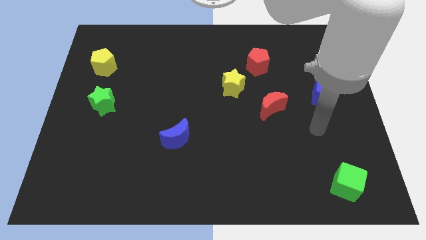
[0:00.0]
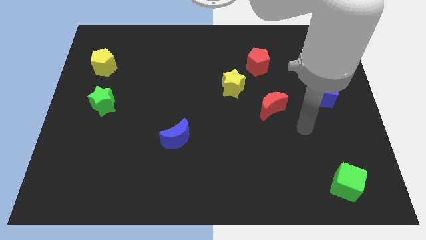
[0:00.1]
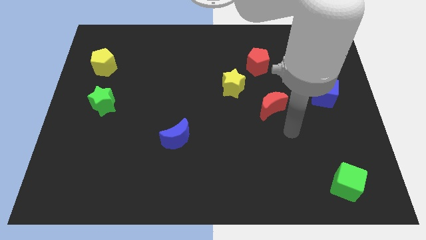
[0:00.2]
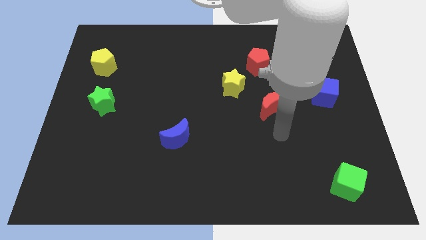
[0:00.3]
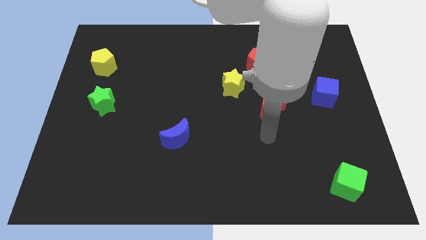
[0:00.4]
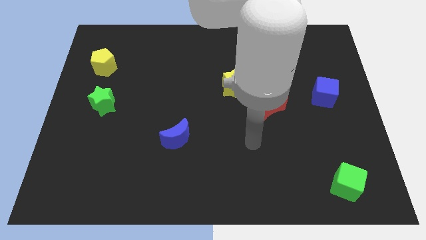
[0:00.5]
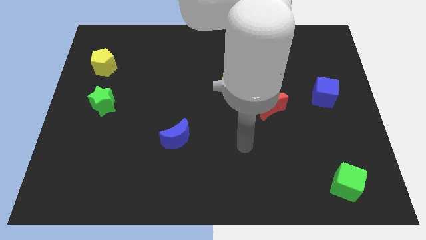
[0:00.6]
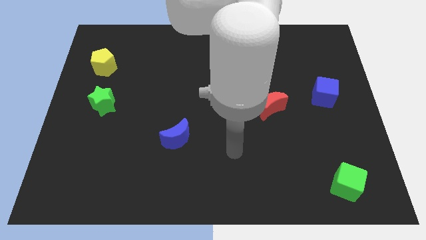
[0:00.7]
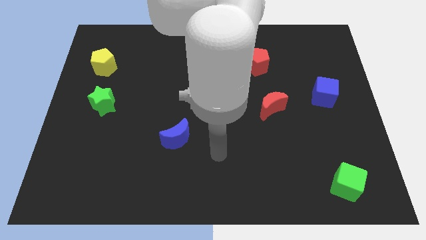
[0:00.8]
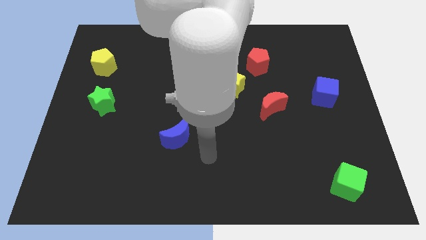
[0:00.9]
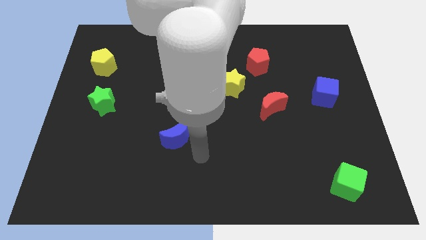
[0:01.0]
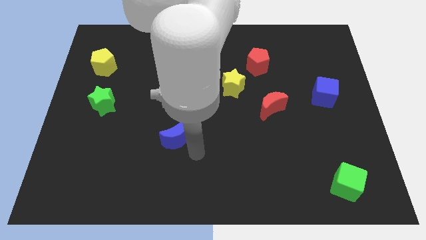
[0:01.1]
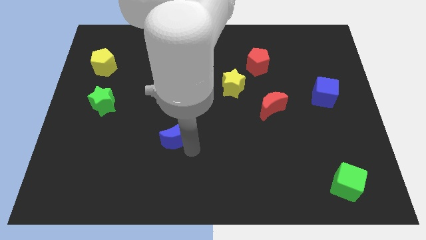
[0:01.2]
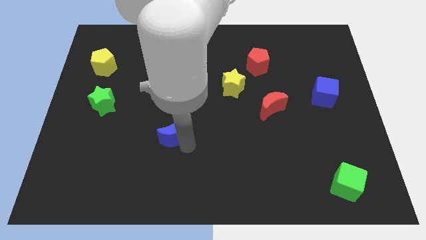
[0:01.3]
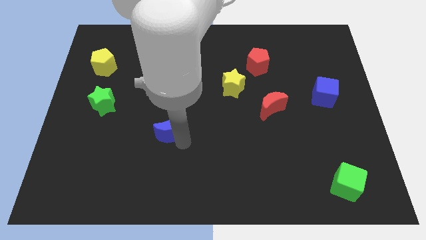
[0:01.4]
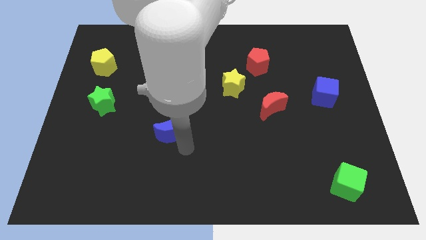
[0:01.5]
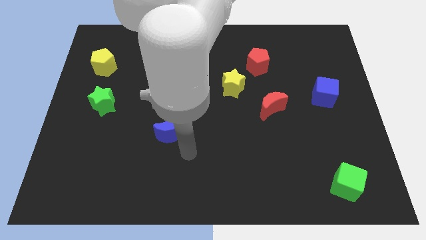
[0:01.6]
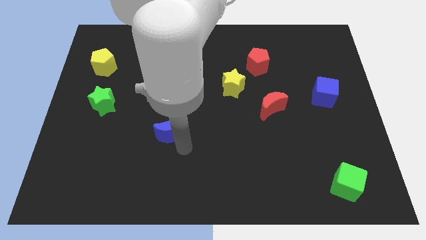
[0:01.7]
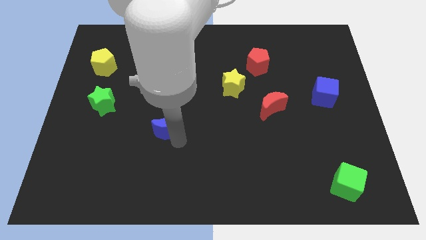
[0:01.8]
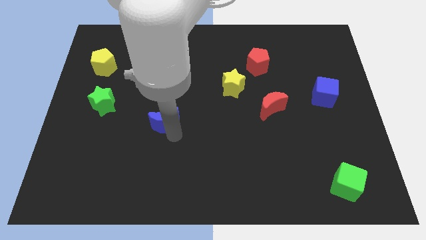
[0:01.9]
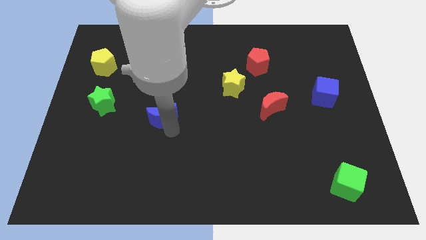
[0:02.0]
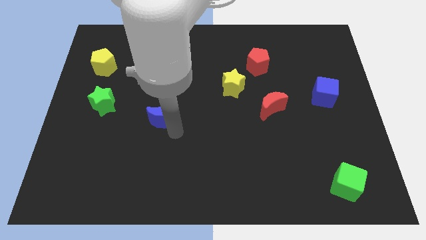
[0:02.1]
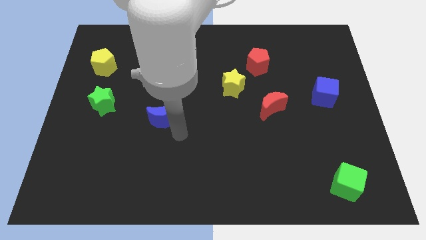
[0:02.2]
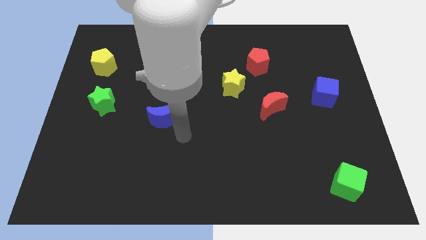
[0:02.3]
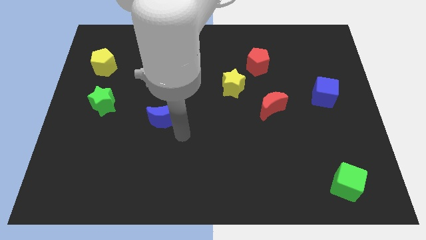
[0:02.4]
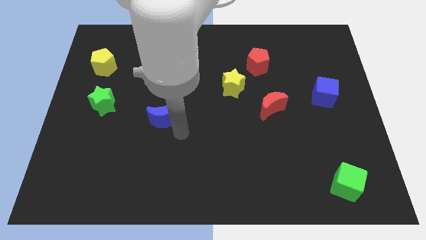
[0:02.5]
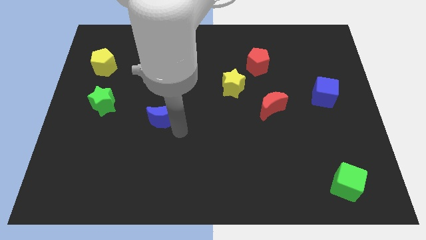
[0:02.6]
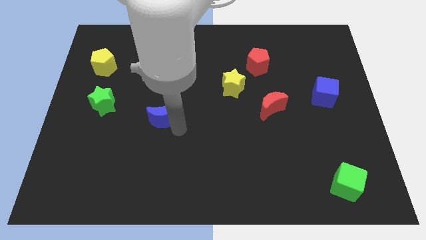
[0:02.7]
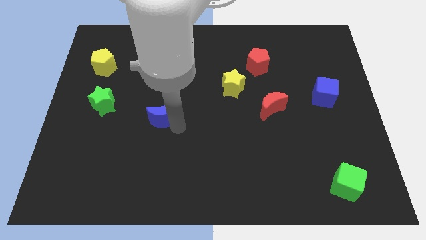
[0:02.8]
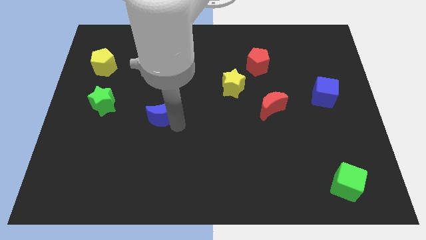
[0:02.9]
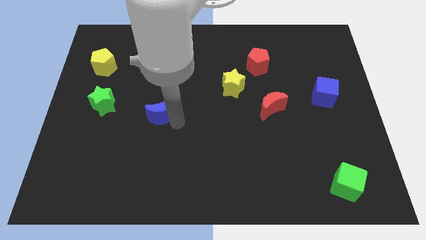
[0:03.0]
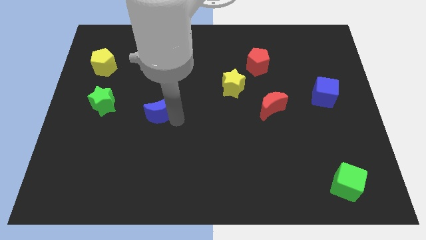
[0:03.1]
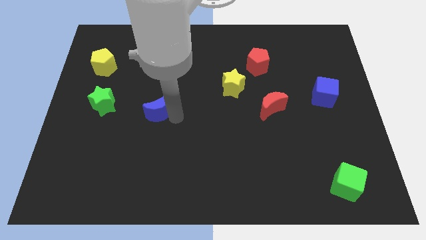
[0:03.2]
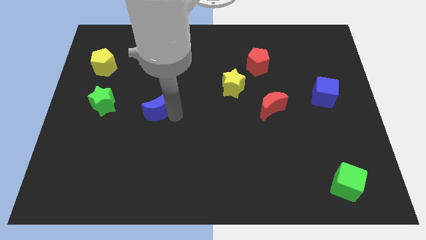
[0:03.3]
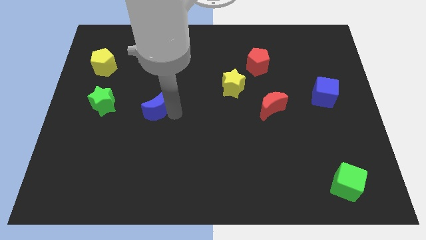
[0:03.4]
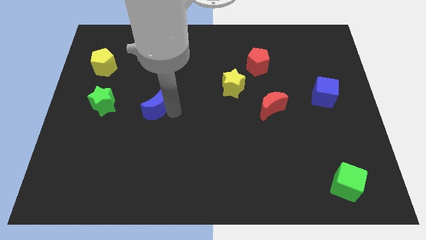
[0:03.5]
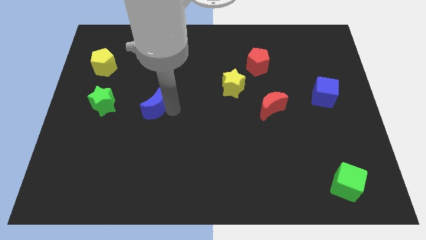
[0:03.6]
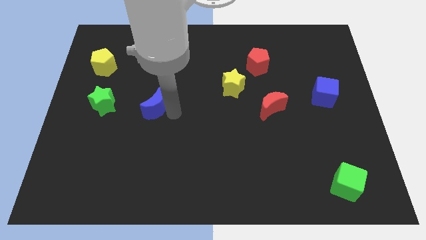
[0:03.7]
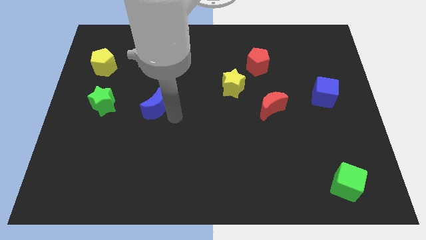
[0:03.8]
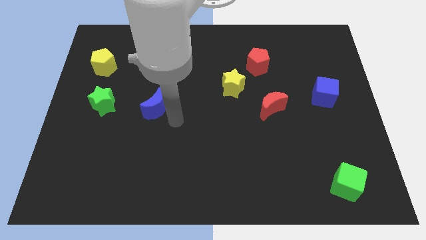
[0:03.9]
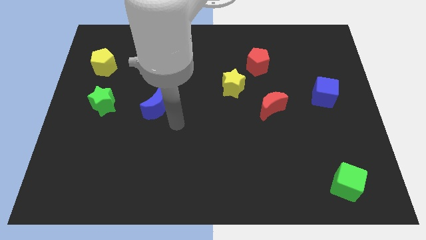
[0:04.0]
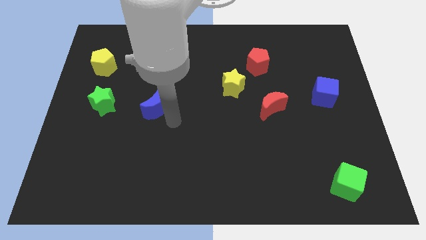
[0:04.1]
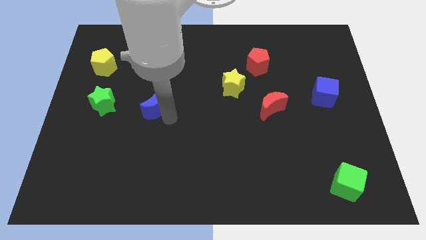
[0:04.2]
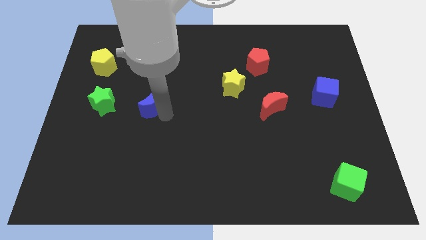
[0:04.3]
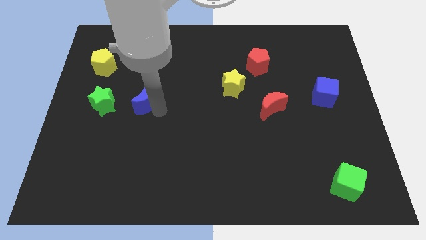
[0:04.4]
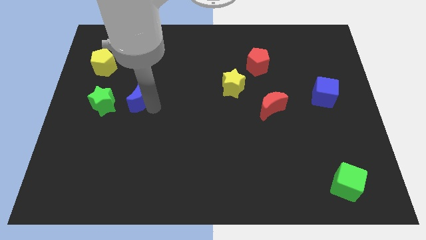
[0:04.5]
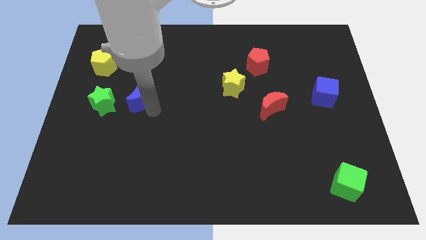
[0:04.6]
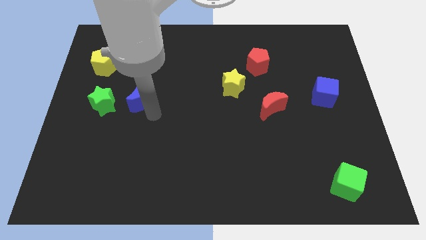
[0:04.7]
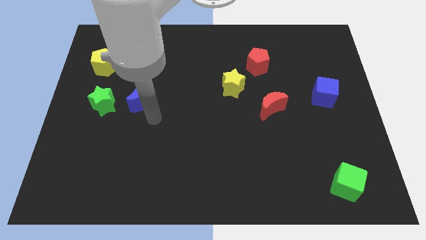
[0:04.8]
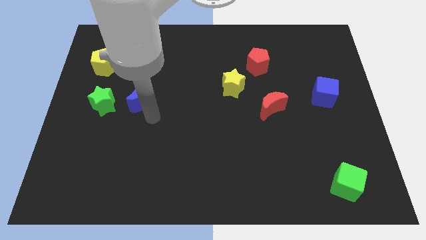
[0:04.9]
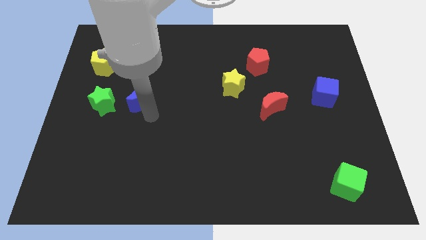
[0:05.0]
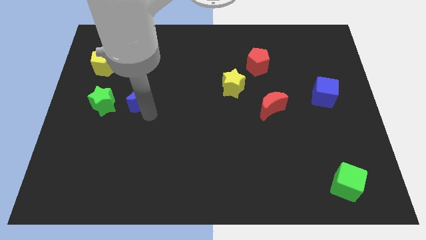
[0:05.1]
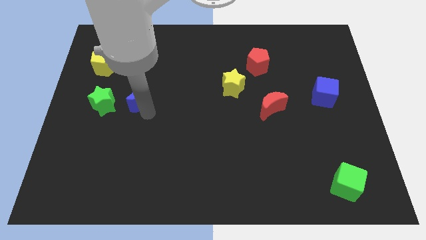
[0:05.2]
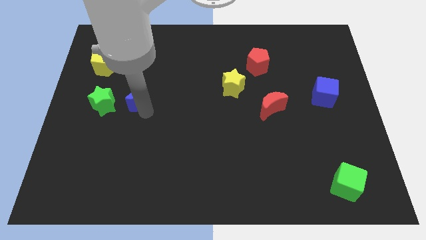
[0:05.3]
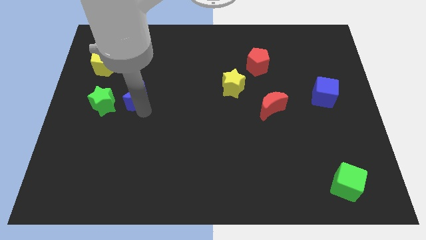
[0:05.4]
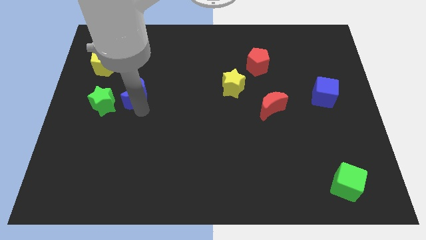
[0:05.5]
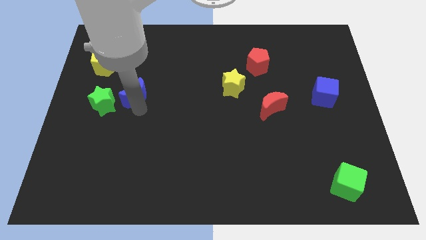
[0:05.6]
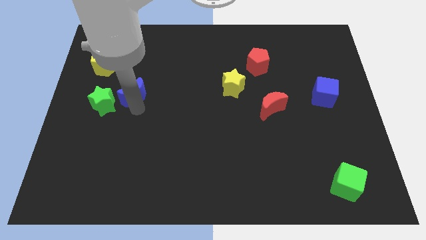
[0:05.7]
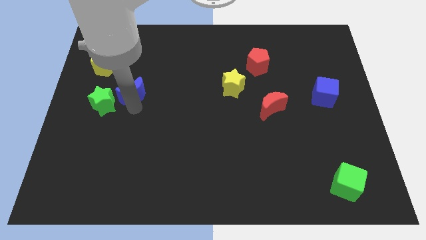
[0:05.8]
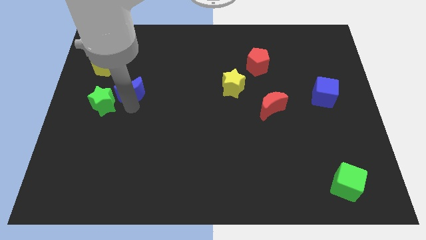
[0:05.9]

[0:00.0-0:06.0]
move the blue moon to the bottom right side of the yellow pentagon
